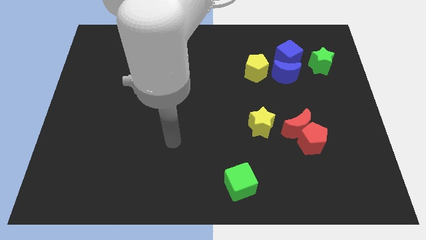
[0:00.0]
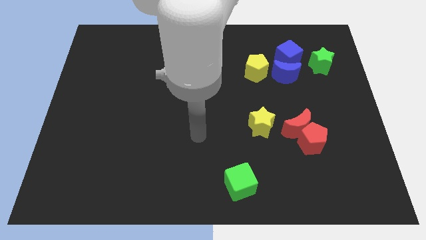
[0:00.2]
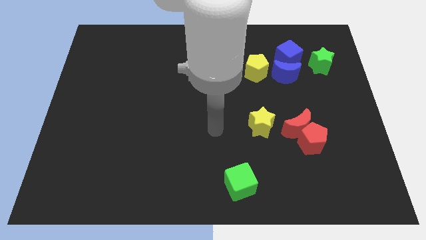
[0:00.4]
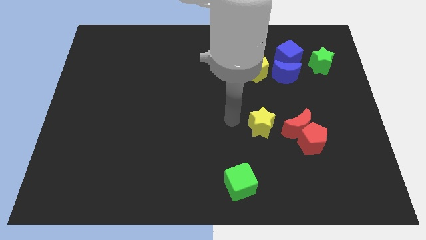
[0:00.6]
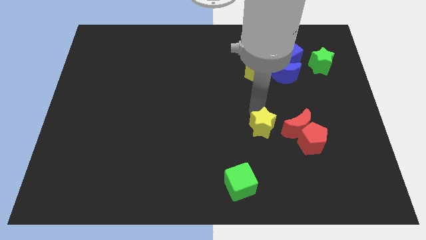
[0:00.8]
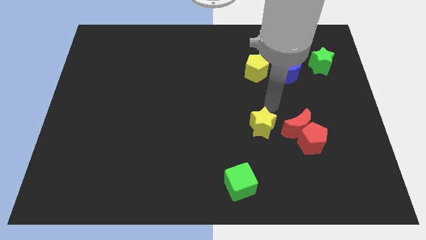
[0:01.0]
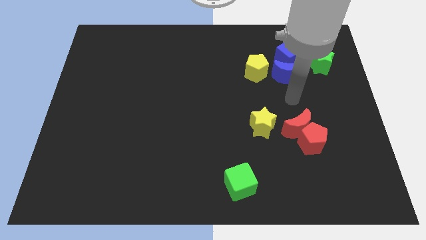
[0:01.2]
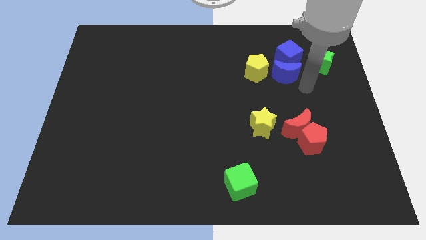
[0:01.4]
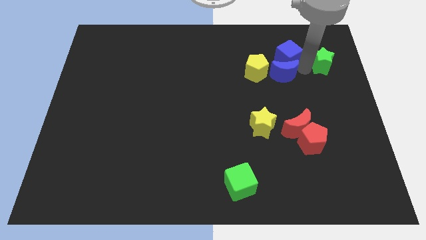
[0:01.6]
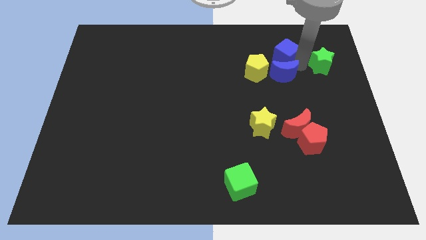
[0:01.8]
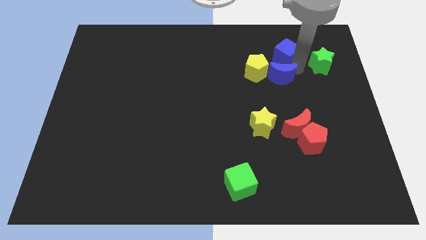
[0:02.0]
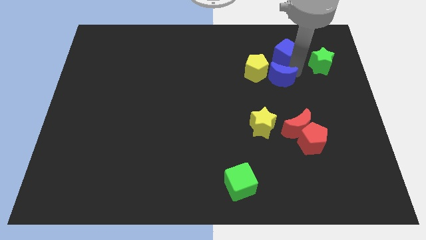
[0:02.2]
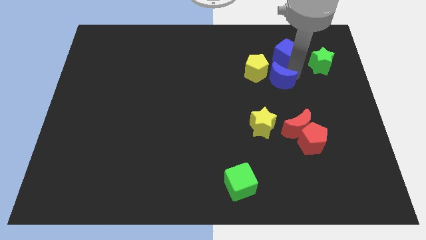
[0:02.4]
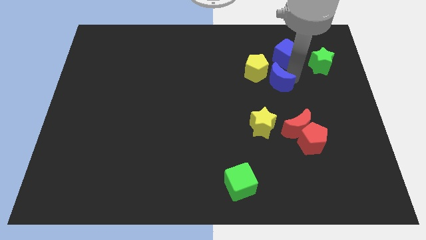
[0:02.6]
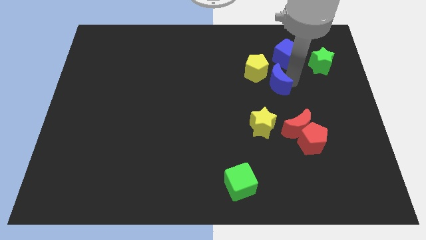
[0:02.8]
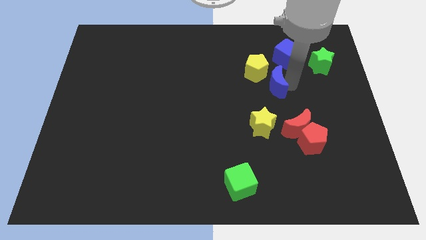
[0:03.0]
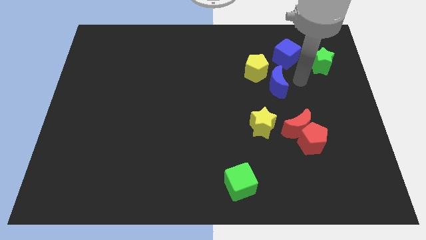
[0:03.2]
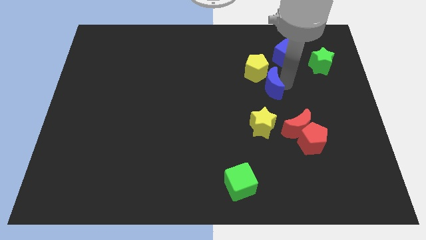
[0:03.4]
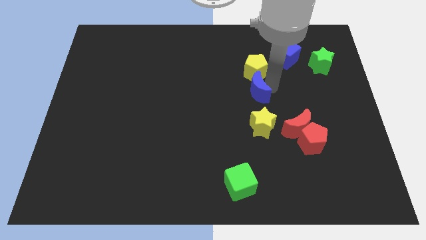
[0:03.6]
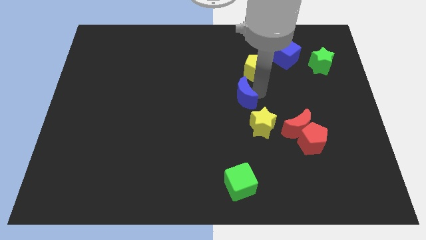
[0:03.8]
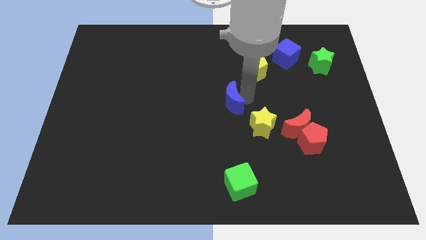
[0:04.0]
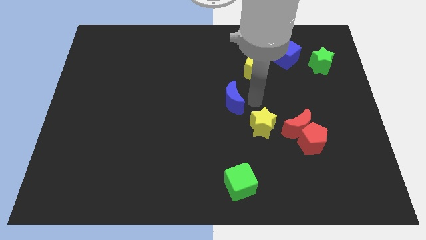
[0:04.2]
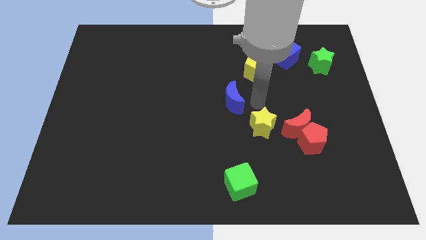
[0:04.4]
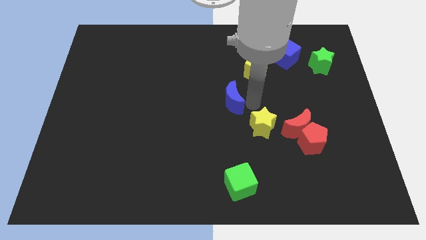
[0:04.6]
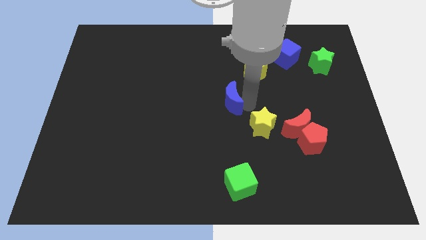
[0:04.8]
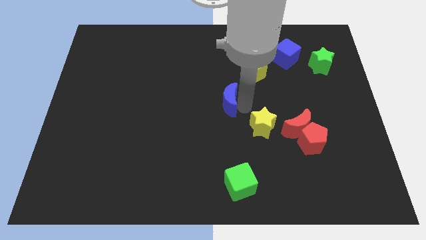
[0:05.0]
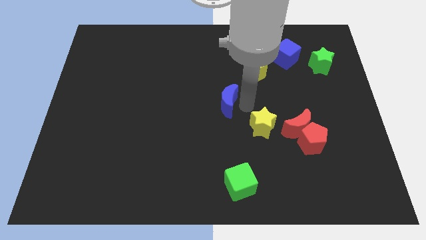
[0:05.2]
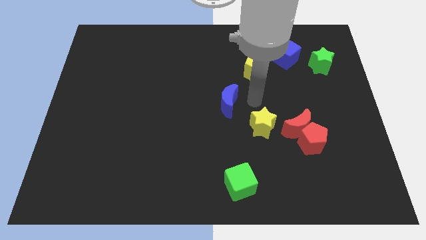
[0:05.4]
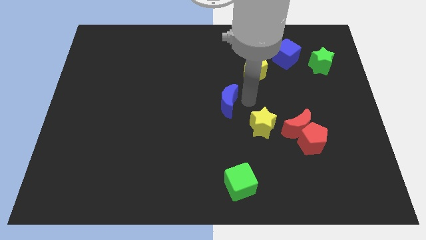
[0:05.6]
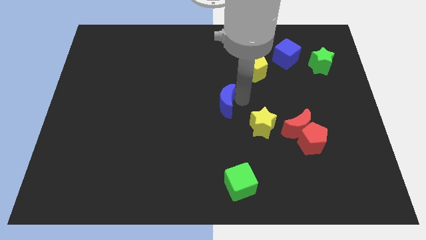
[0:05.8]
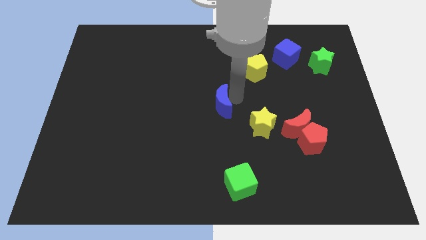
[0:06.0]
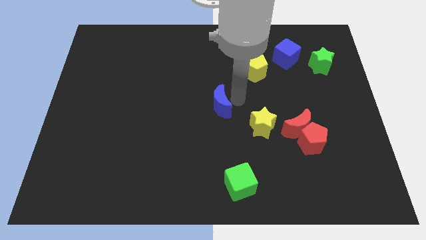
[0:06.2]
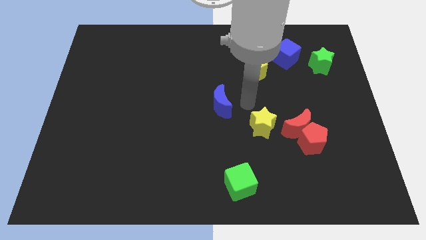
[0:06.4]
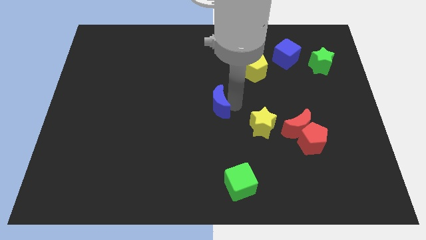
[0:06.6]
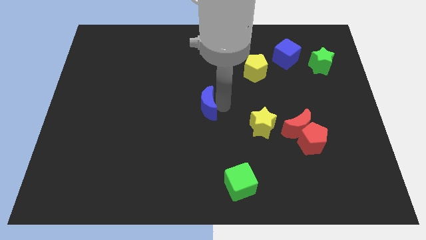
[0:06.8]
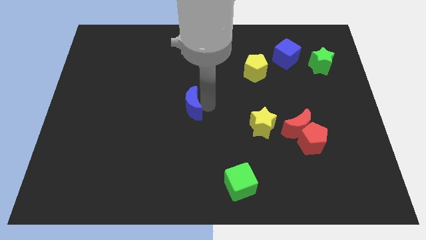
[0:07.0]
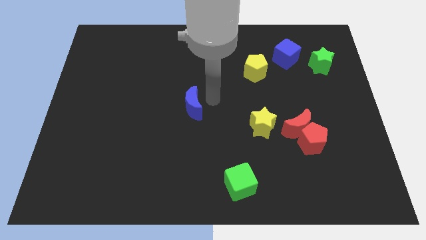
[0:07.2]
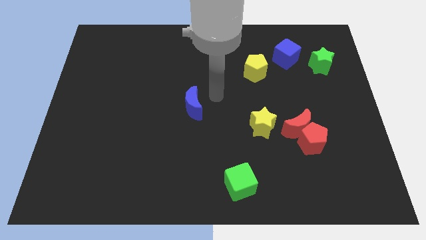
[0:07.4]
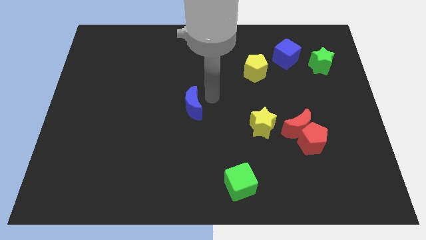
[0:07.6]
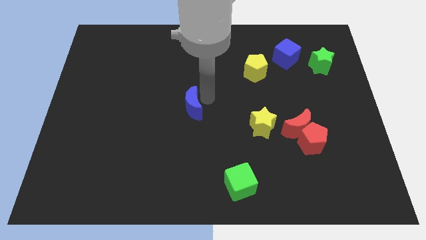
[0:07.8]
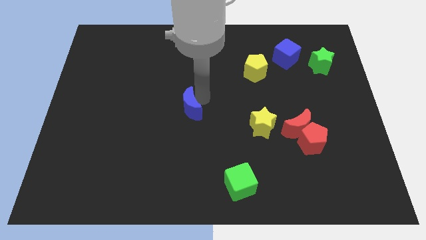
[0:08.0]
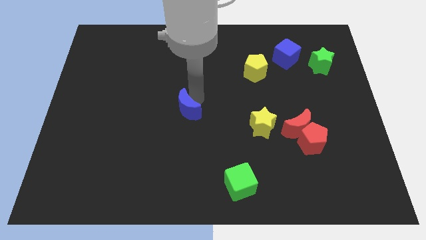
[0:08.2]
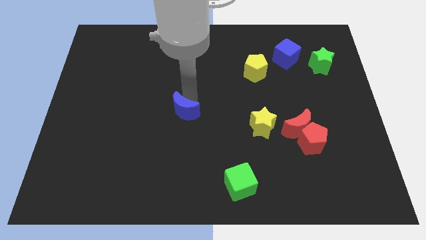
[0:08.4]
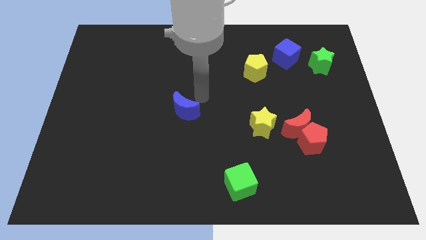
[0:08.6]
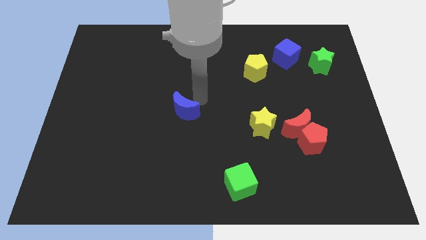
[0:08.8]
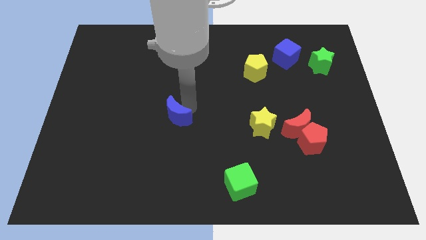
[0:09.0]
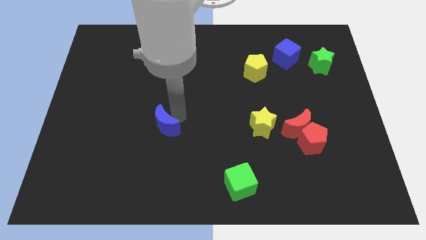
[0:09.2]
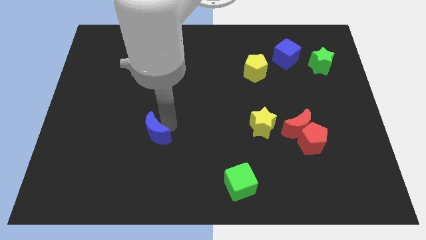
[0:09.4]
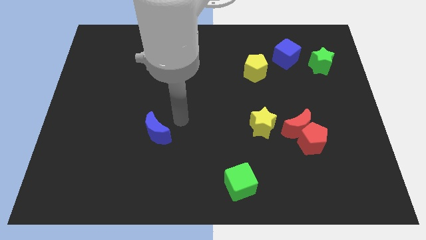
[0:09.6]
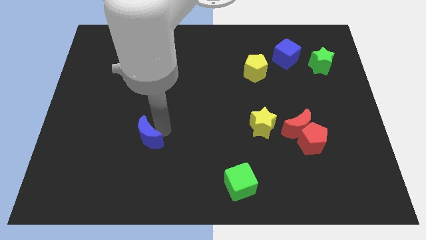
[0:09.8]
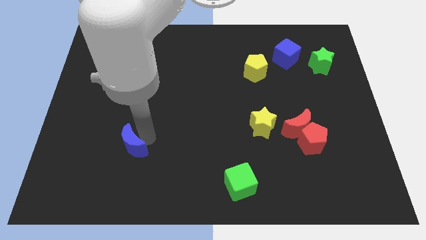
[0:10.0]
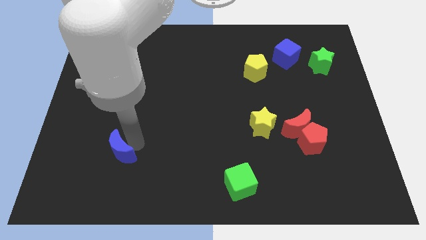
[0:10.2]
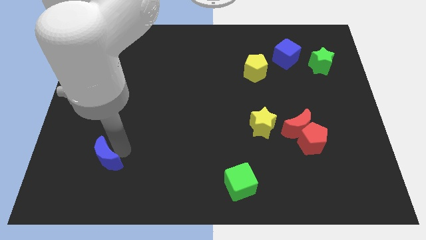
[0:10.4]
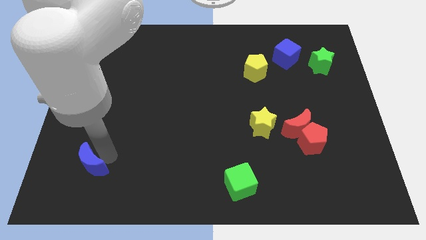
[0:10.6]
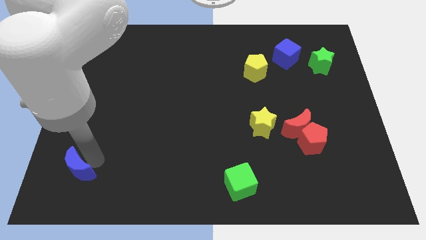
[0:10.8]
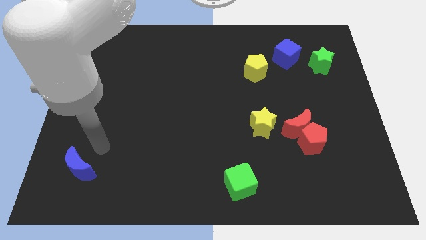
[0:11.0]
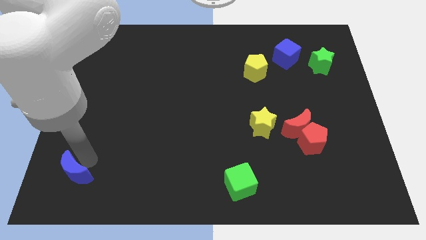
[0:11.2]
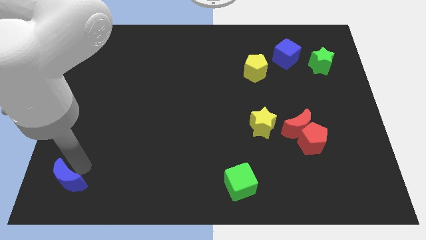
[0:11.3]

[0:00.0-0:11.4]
push the blue moon to the bottom left of the board

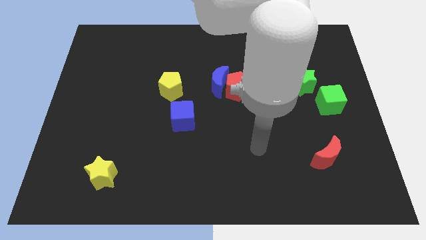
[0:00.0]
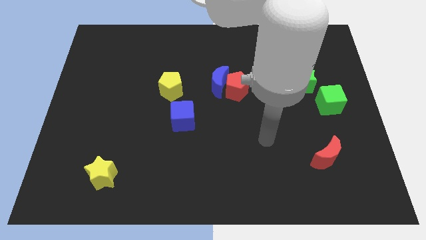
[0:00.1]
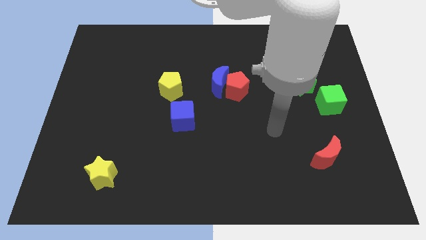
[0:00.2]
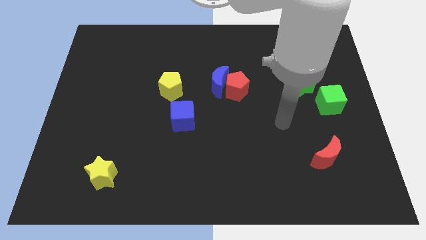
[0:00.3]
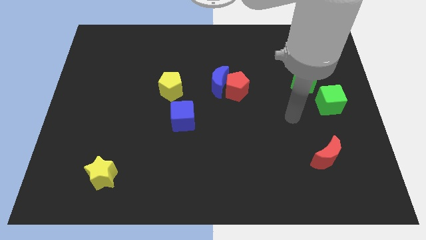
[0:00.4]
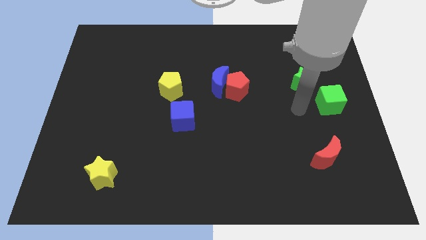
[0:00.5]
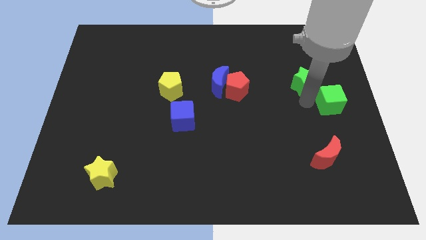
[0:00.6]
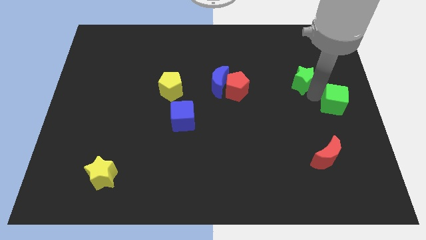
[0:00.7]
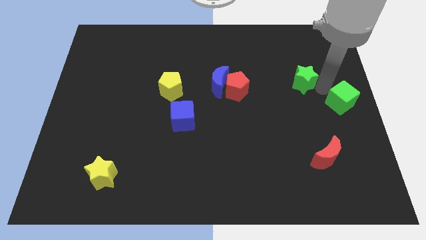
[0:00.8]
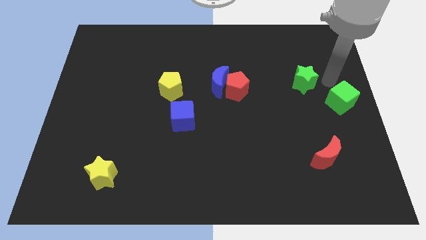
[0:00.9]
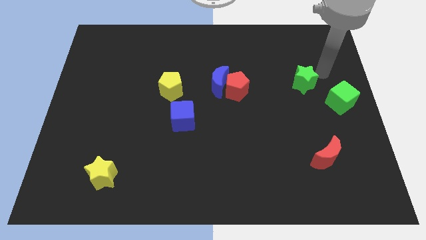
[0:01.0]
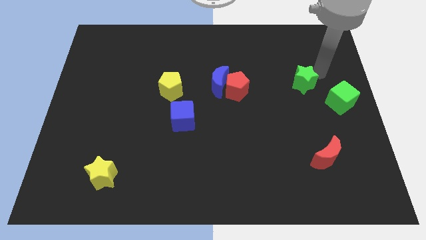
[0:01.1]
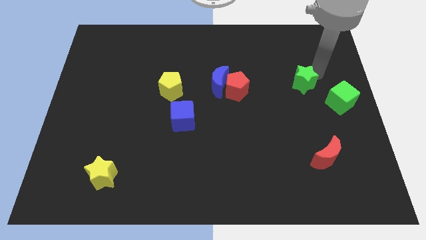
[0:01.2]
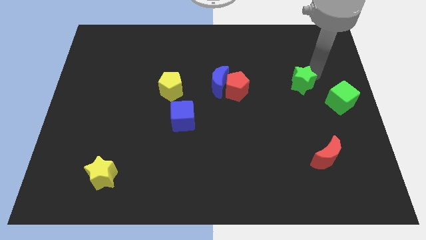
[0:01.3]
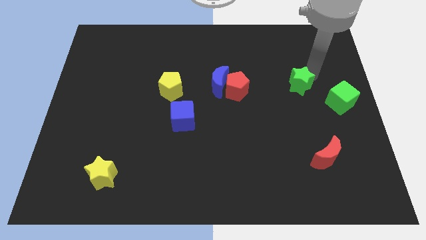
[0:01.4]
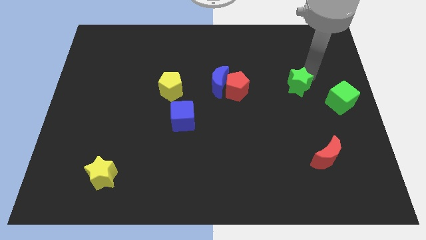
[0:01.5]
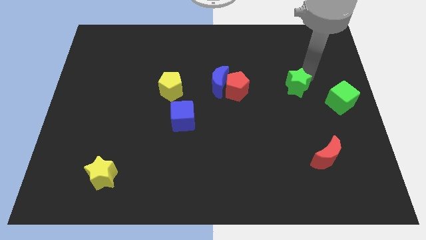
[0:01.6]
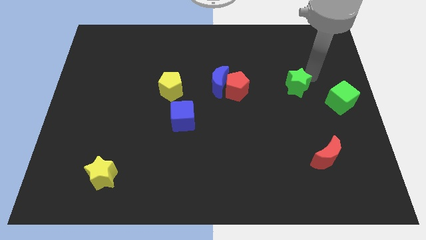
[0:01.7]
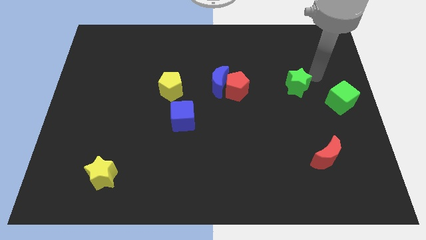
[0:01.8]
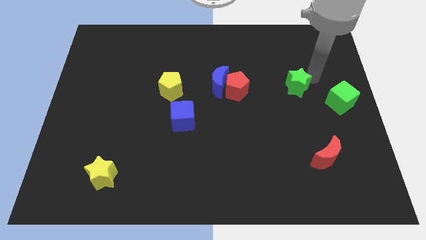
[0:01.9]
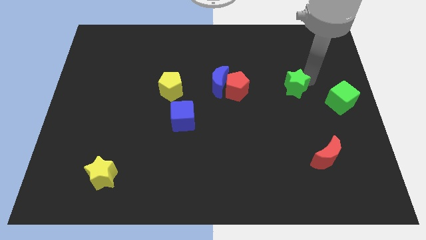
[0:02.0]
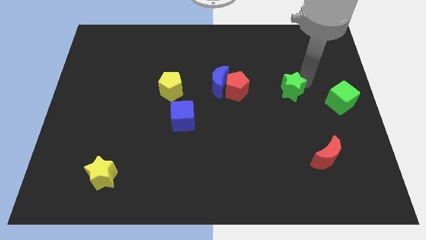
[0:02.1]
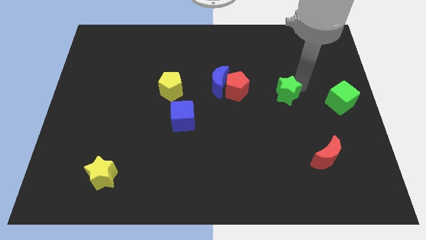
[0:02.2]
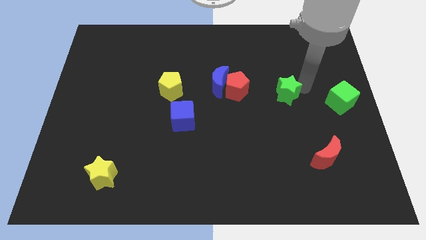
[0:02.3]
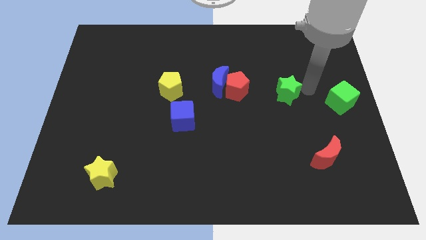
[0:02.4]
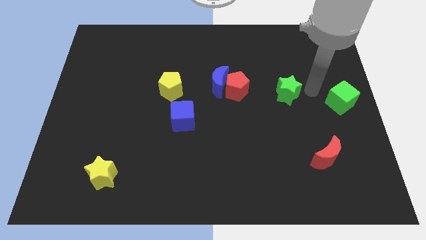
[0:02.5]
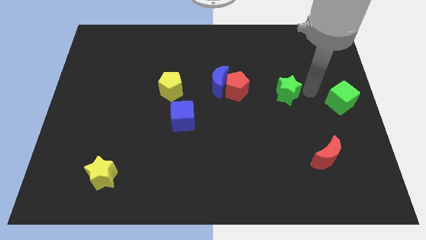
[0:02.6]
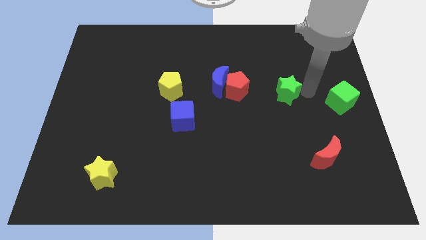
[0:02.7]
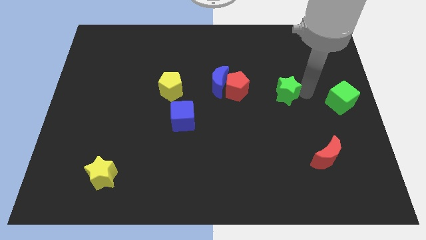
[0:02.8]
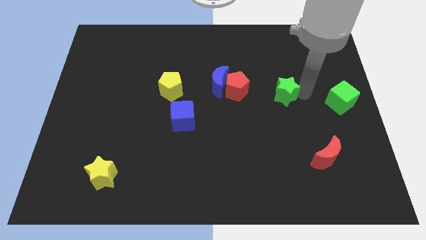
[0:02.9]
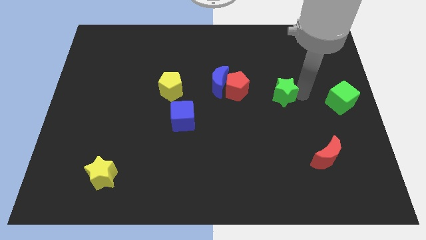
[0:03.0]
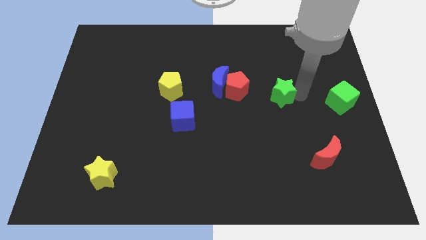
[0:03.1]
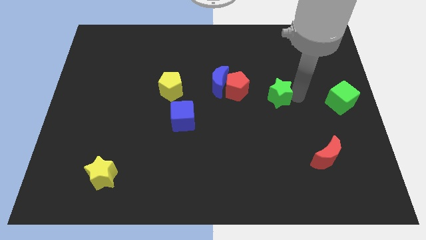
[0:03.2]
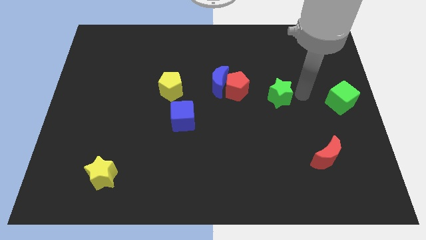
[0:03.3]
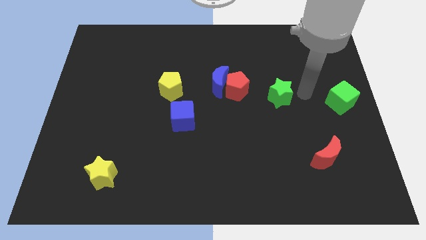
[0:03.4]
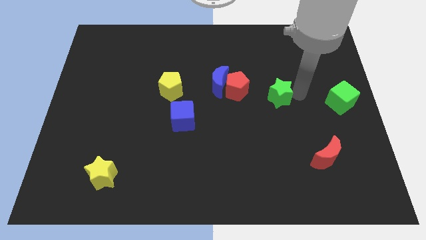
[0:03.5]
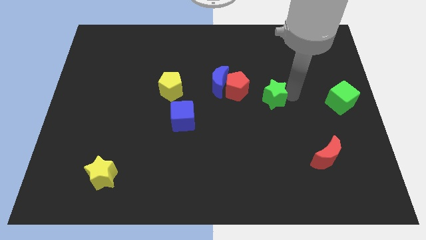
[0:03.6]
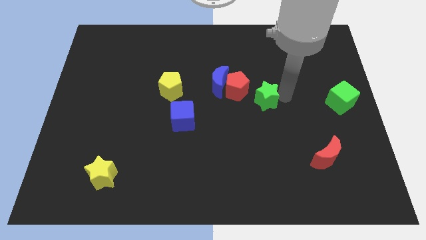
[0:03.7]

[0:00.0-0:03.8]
push the green star to the center
